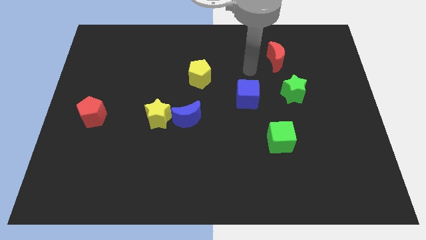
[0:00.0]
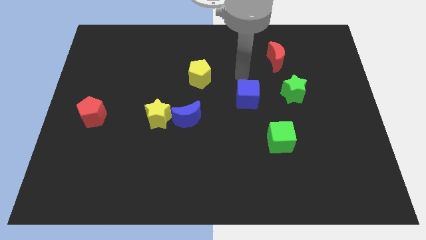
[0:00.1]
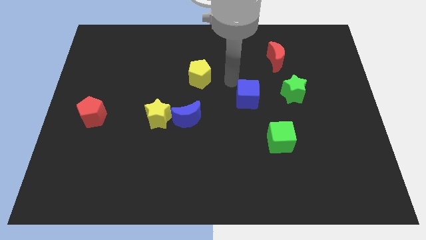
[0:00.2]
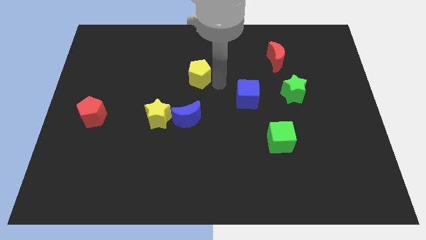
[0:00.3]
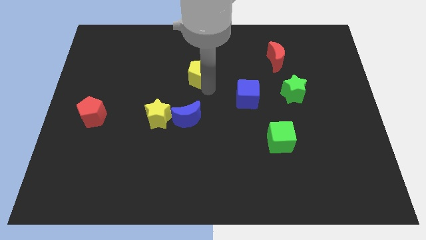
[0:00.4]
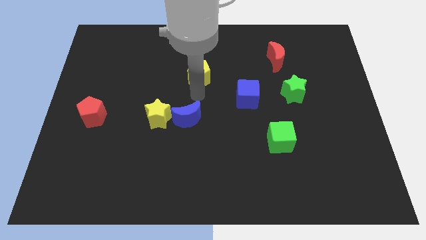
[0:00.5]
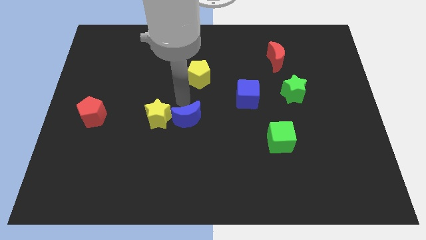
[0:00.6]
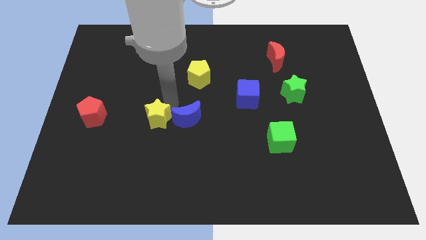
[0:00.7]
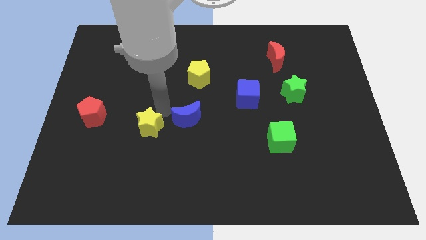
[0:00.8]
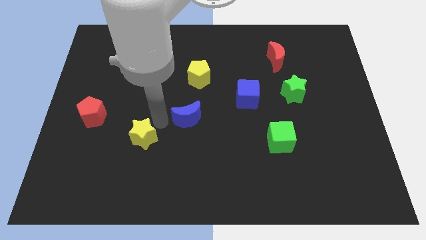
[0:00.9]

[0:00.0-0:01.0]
move the blue moon away from the yellow star

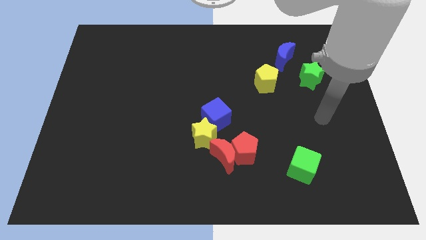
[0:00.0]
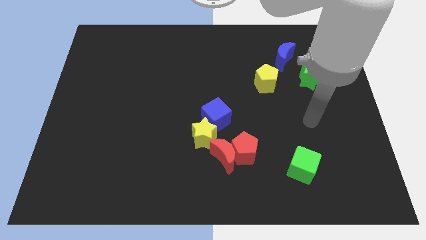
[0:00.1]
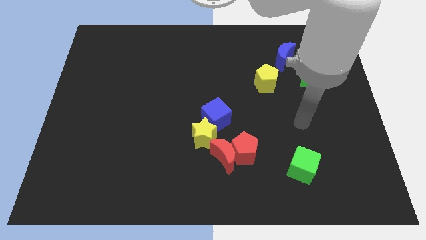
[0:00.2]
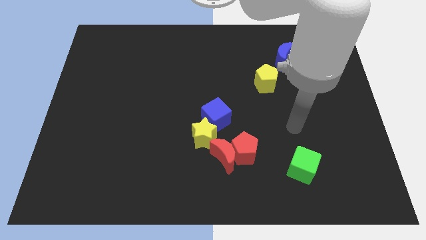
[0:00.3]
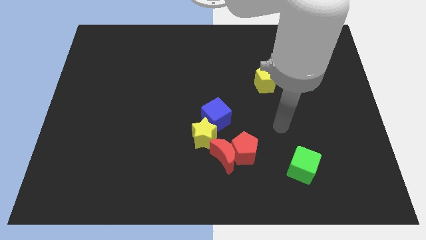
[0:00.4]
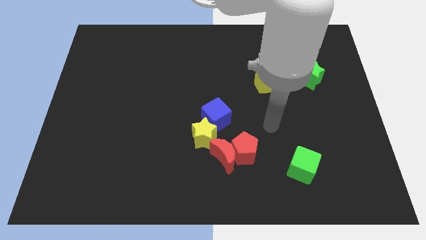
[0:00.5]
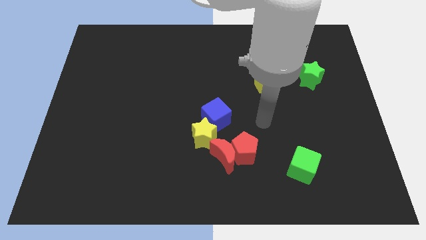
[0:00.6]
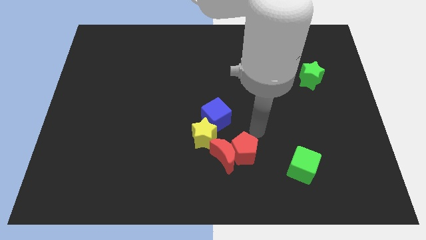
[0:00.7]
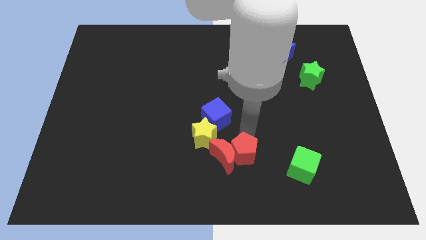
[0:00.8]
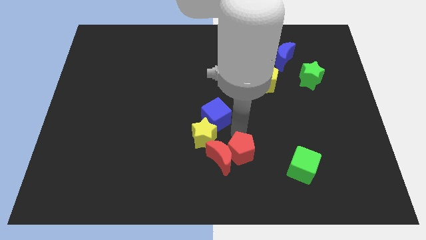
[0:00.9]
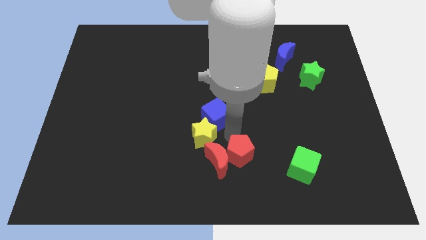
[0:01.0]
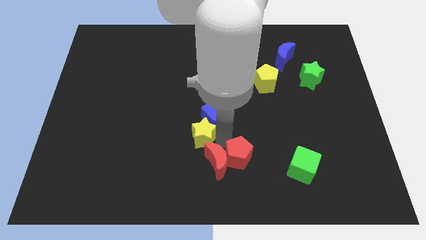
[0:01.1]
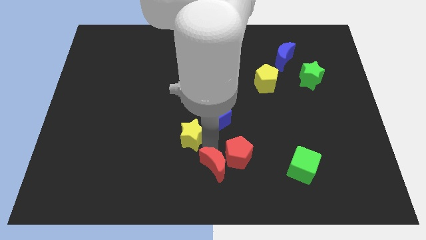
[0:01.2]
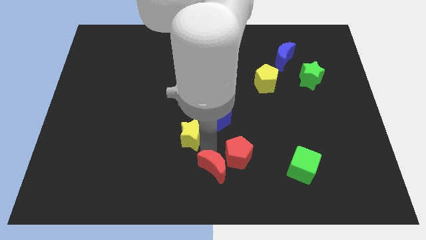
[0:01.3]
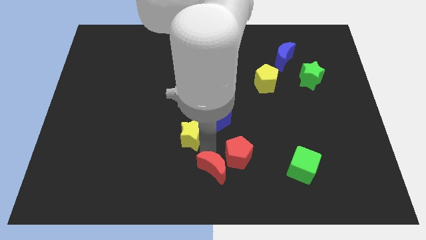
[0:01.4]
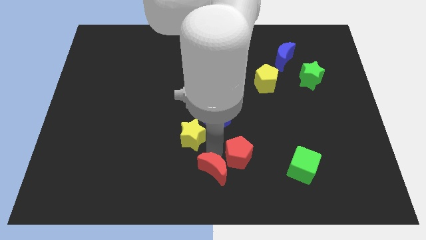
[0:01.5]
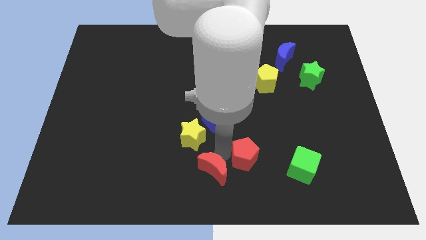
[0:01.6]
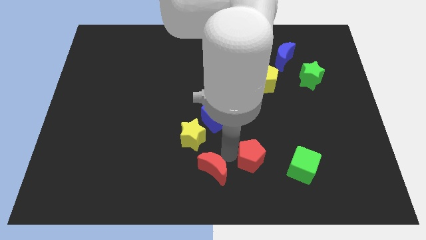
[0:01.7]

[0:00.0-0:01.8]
move the red pentagon away from the red moon and yellow star

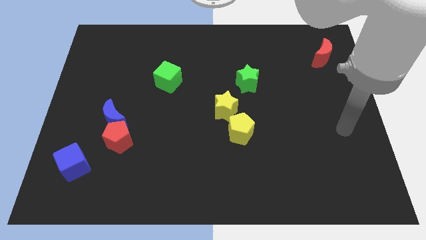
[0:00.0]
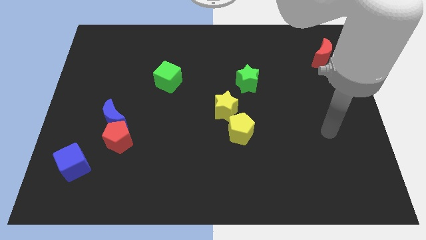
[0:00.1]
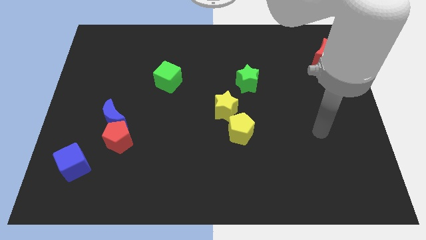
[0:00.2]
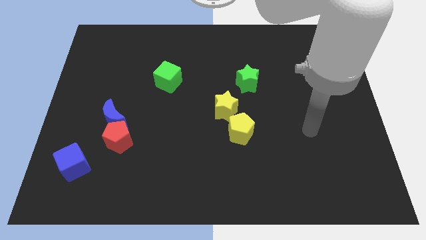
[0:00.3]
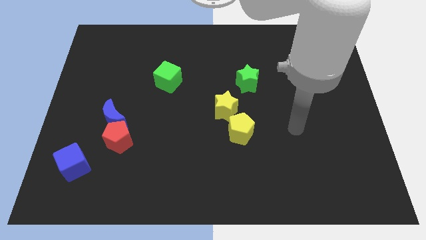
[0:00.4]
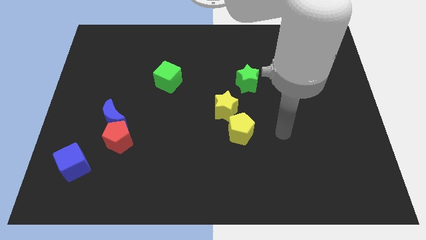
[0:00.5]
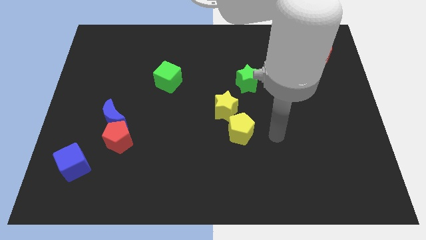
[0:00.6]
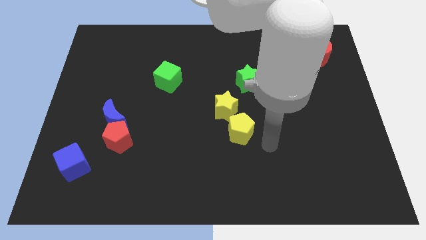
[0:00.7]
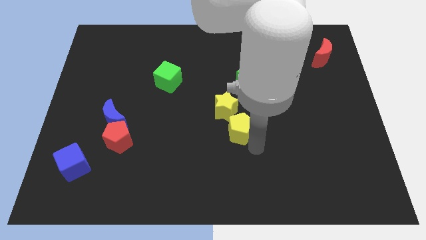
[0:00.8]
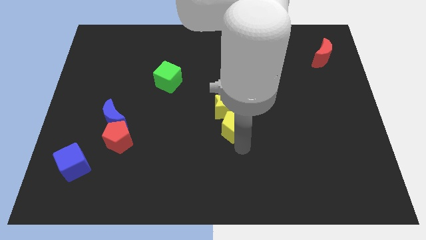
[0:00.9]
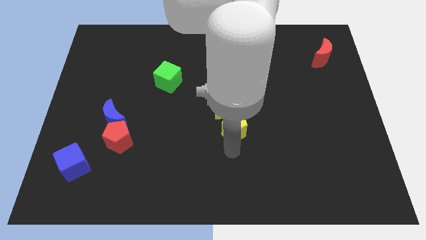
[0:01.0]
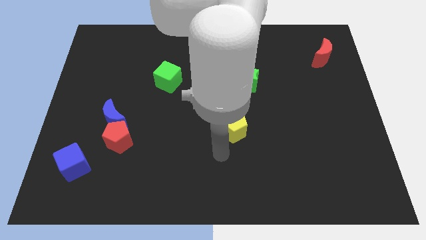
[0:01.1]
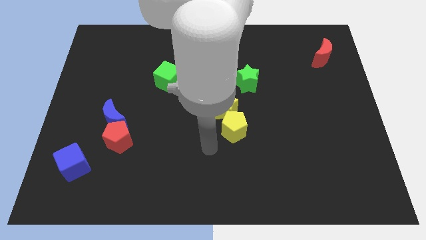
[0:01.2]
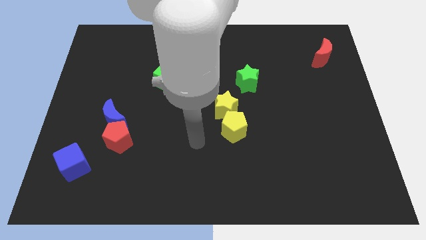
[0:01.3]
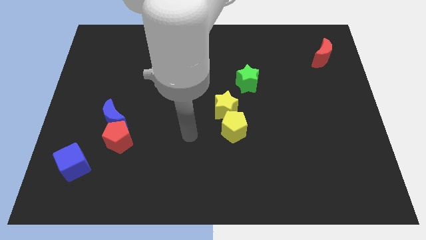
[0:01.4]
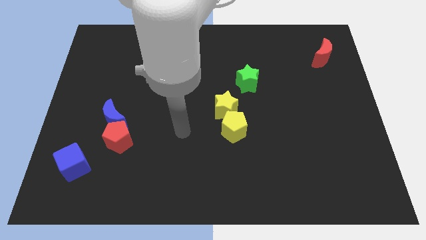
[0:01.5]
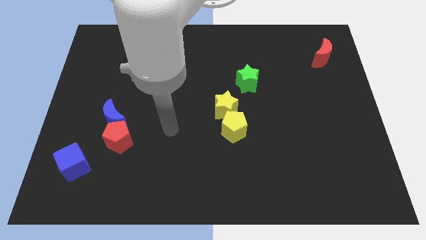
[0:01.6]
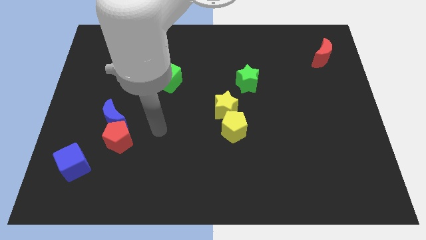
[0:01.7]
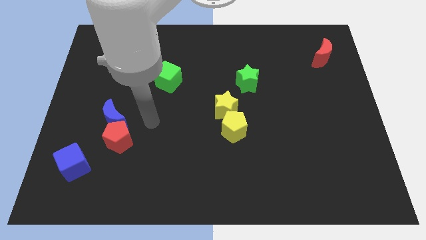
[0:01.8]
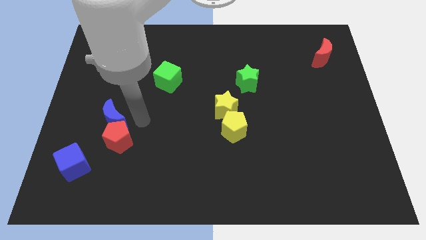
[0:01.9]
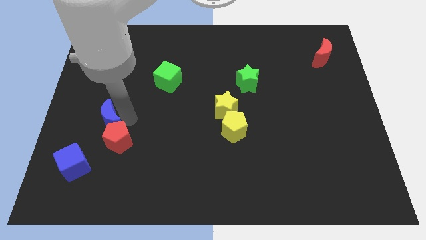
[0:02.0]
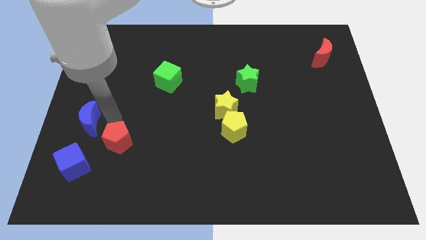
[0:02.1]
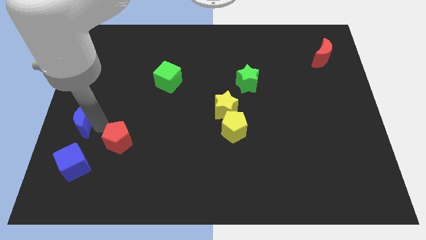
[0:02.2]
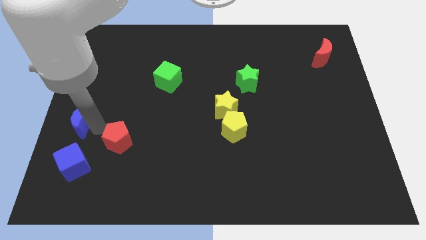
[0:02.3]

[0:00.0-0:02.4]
pull the red pentagon apart from the blue moon

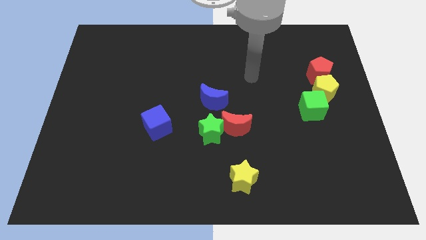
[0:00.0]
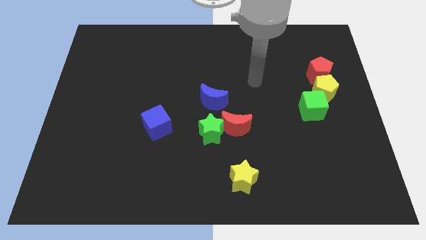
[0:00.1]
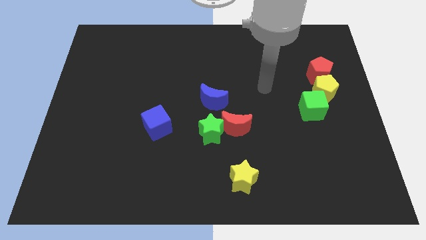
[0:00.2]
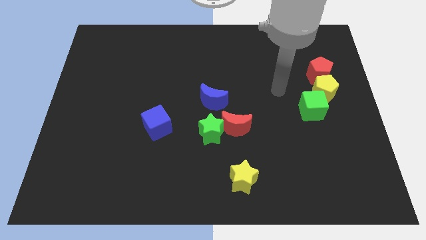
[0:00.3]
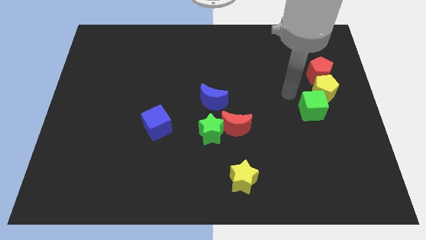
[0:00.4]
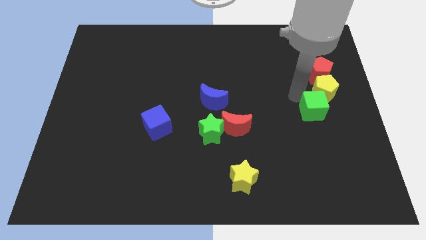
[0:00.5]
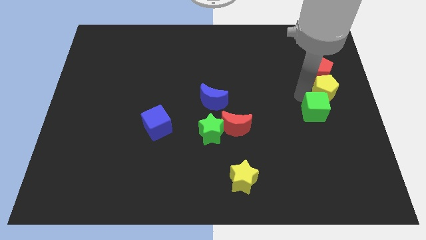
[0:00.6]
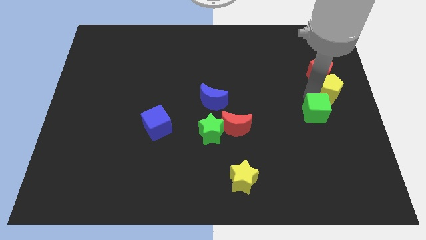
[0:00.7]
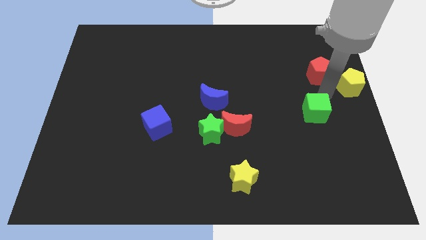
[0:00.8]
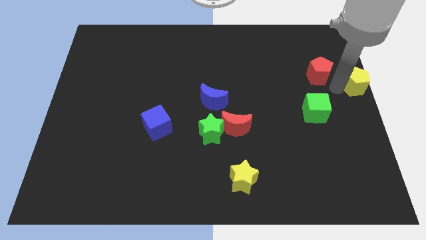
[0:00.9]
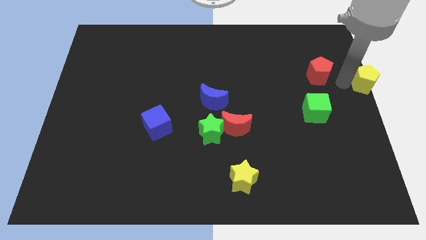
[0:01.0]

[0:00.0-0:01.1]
move the red pentagon away from the yellow pentagon

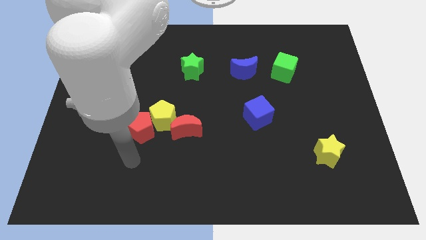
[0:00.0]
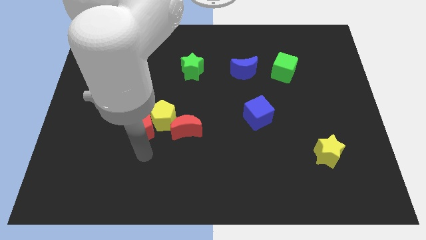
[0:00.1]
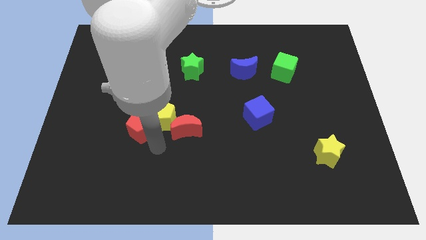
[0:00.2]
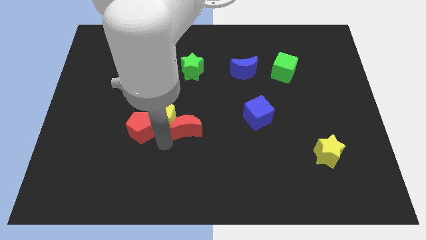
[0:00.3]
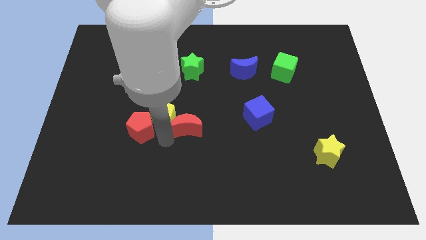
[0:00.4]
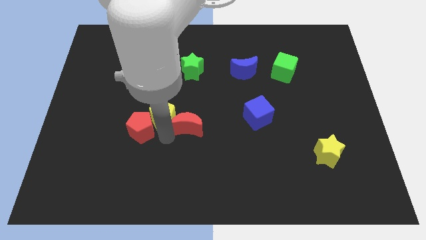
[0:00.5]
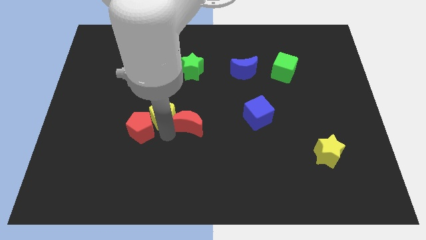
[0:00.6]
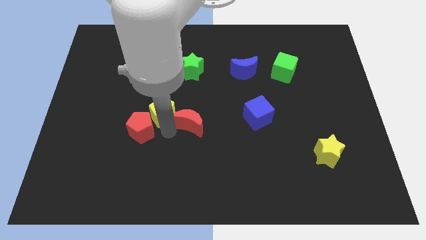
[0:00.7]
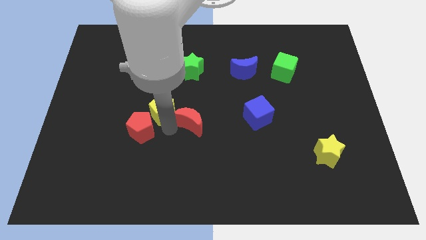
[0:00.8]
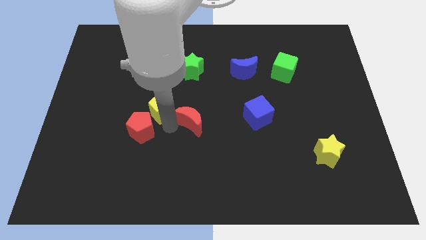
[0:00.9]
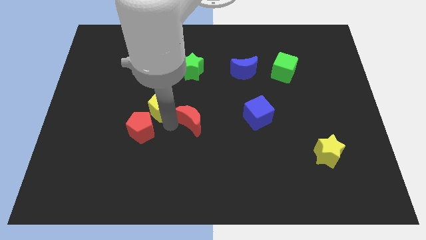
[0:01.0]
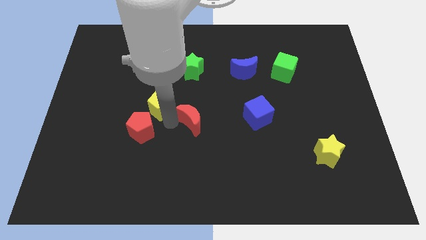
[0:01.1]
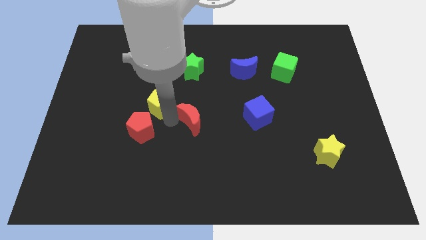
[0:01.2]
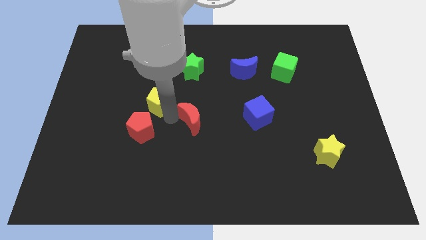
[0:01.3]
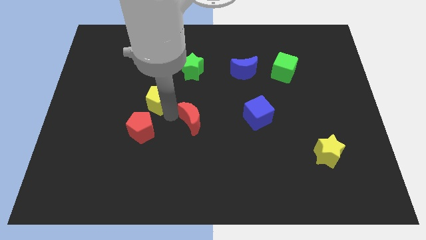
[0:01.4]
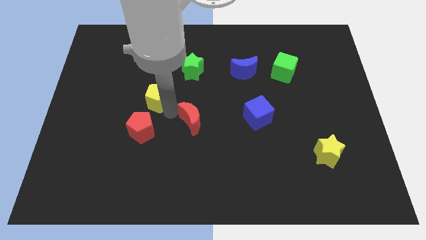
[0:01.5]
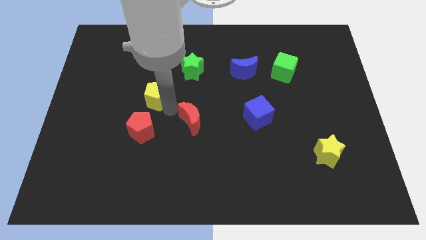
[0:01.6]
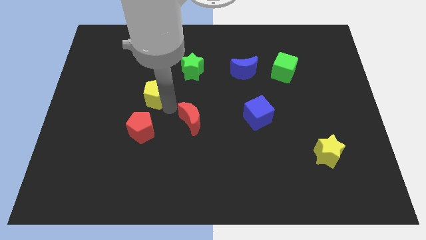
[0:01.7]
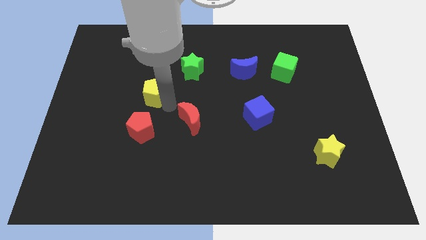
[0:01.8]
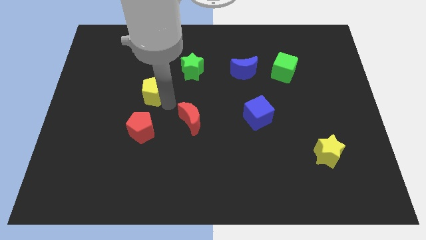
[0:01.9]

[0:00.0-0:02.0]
separate the yellow pentagon from the red pentagon and red moon

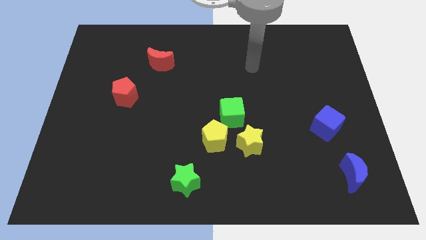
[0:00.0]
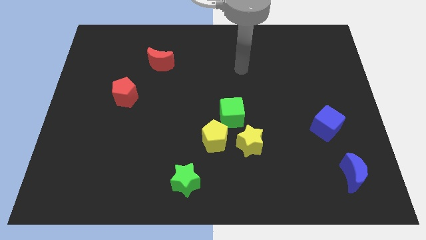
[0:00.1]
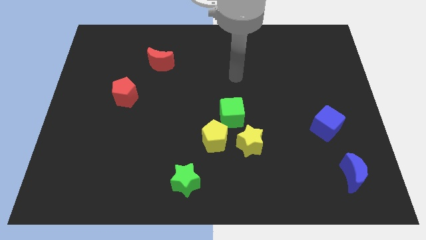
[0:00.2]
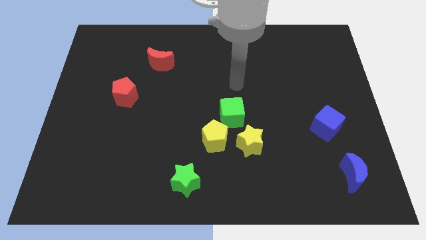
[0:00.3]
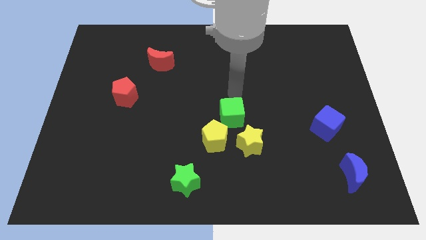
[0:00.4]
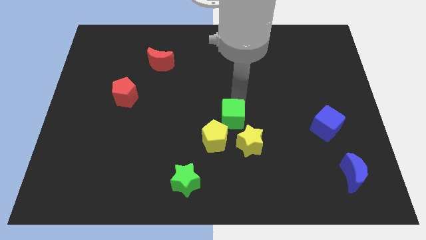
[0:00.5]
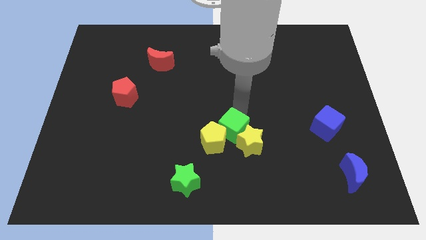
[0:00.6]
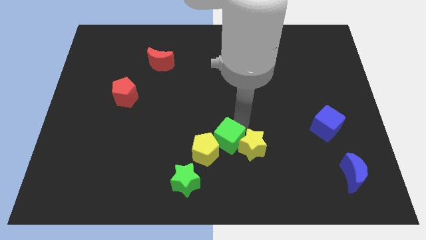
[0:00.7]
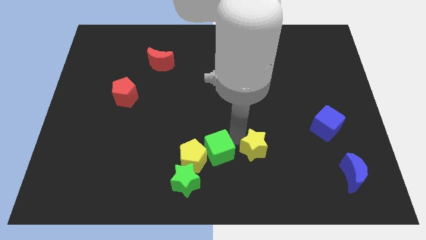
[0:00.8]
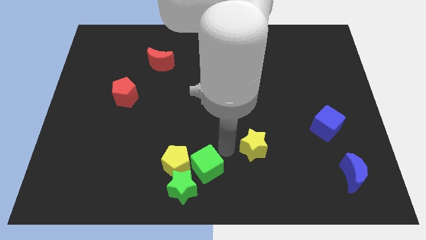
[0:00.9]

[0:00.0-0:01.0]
move the yellow pentagon away from the yellow star and green cube
